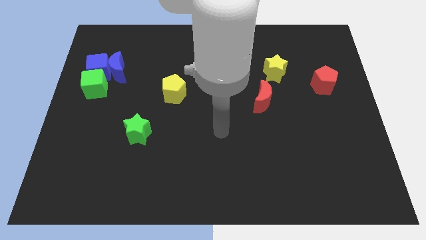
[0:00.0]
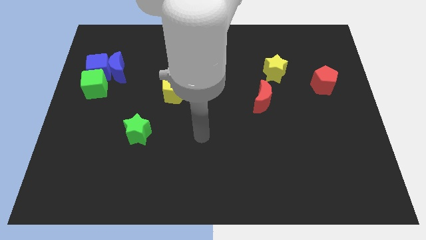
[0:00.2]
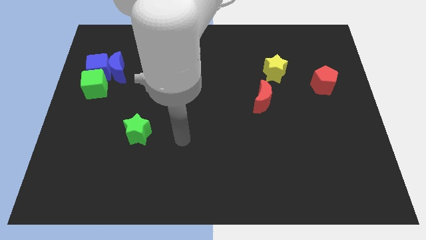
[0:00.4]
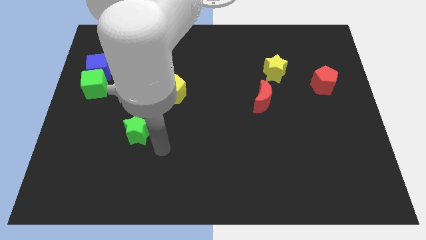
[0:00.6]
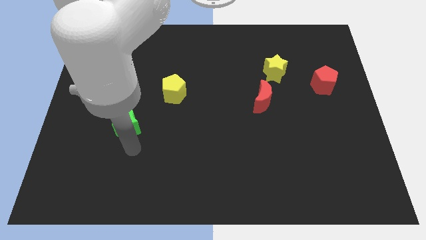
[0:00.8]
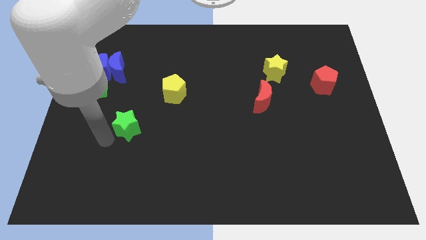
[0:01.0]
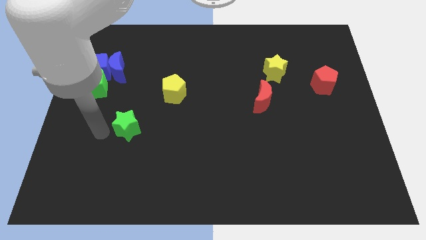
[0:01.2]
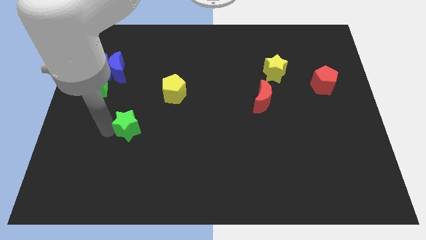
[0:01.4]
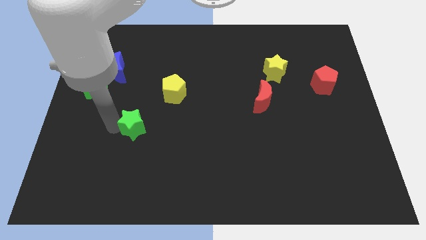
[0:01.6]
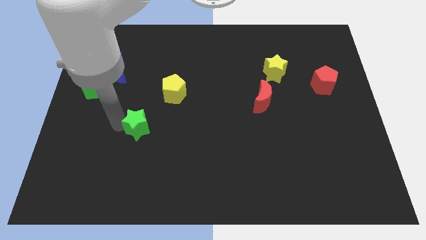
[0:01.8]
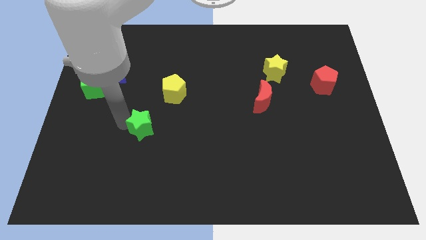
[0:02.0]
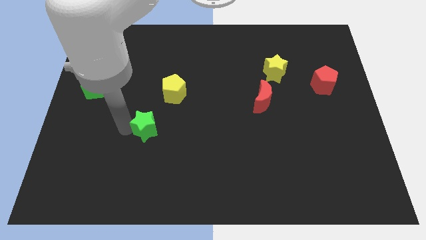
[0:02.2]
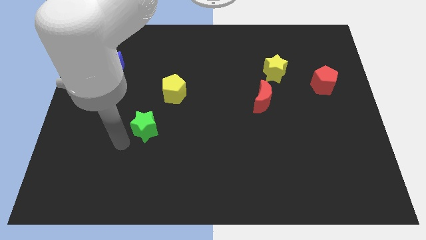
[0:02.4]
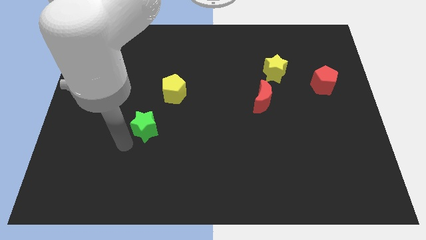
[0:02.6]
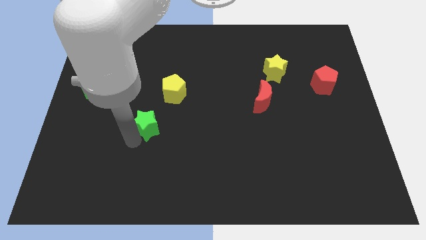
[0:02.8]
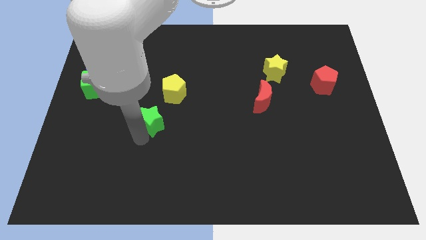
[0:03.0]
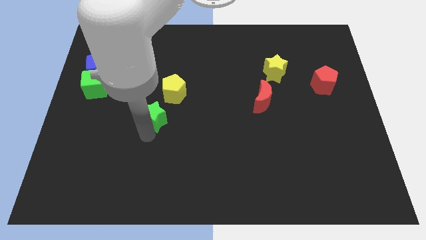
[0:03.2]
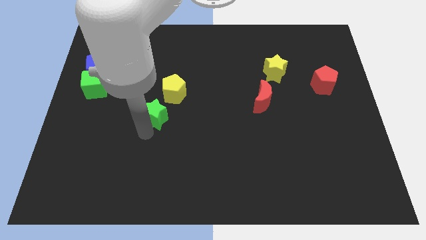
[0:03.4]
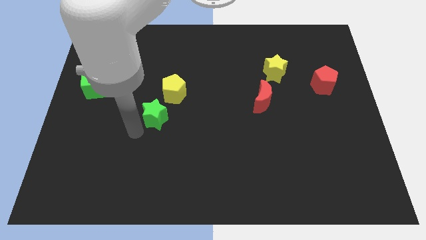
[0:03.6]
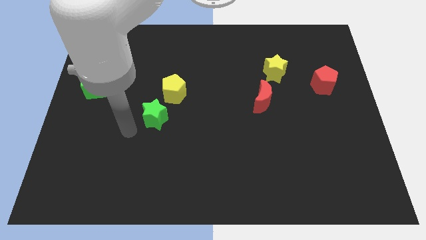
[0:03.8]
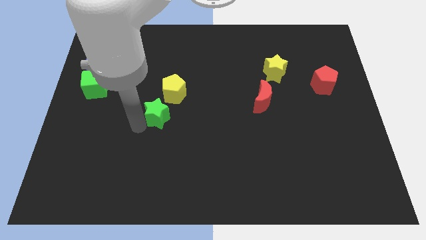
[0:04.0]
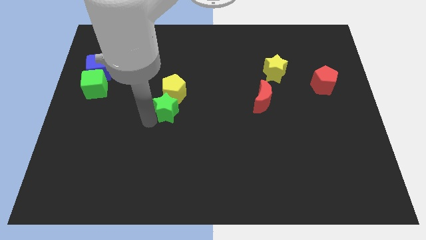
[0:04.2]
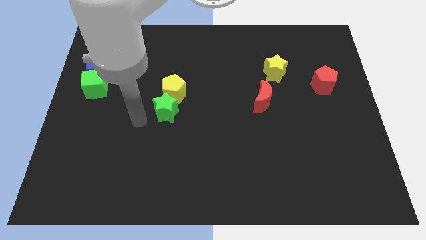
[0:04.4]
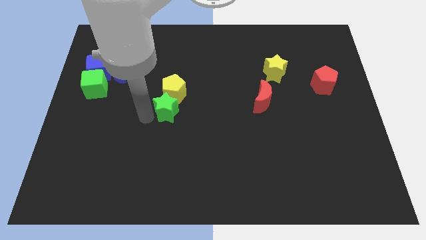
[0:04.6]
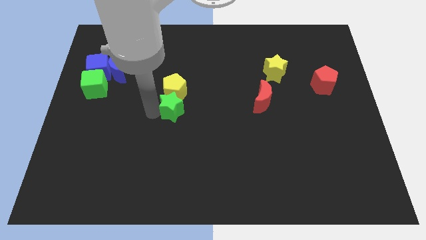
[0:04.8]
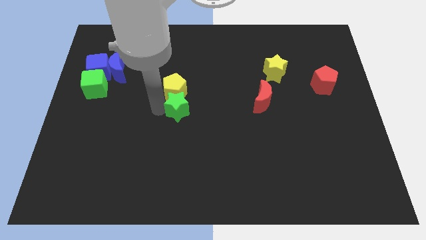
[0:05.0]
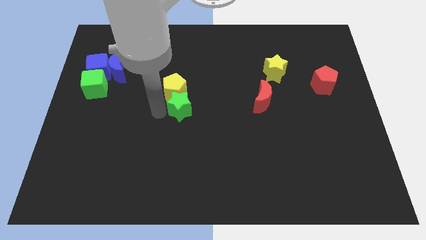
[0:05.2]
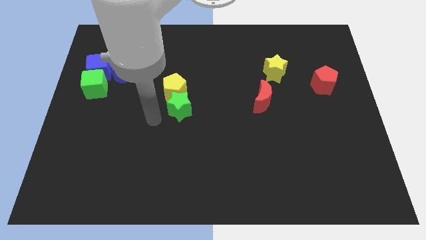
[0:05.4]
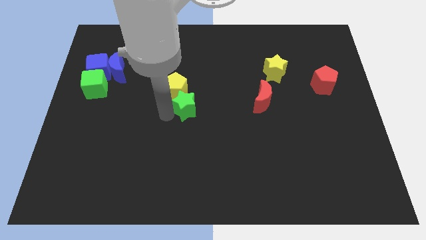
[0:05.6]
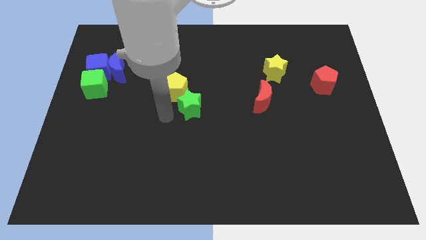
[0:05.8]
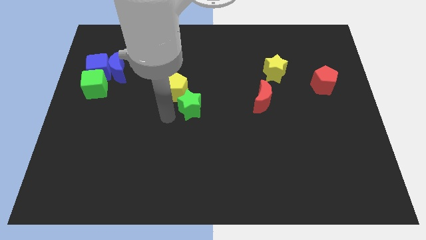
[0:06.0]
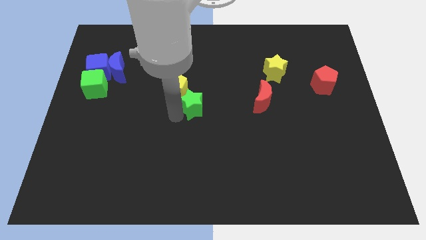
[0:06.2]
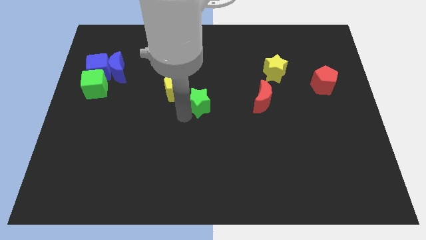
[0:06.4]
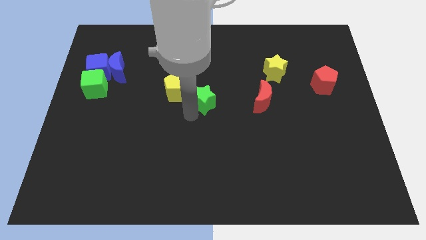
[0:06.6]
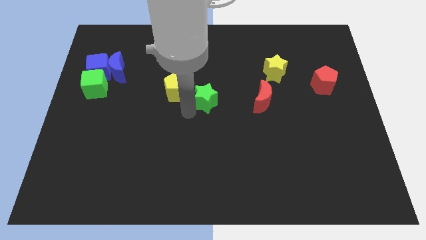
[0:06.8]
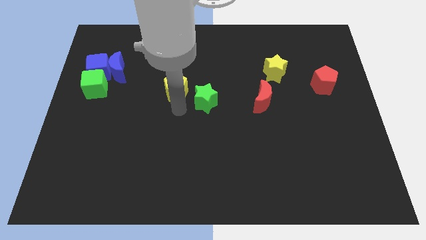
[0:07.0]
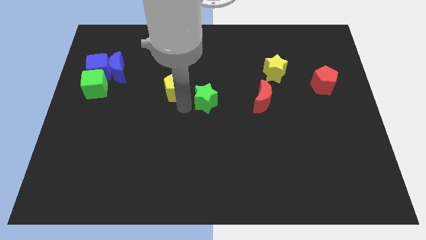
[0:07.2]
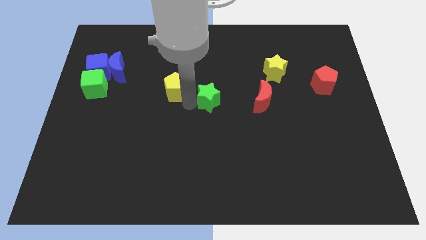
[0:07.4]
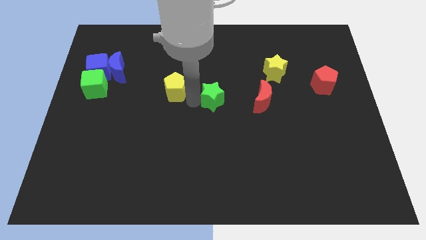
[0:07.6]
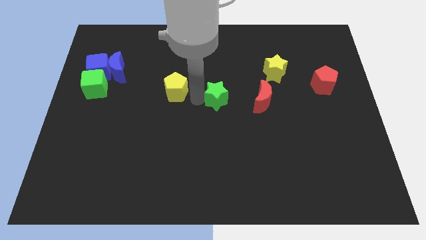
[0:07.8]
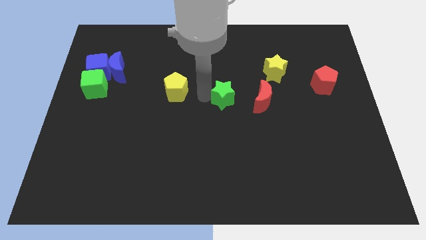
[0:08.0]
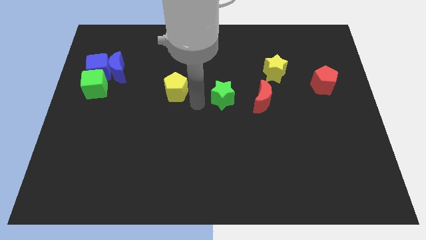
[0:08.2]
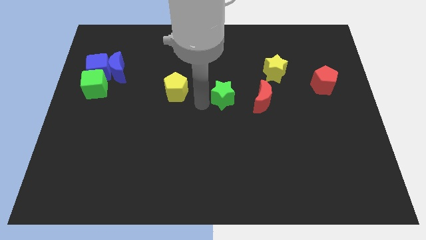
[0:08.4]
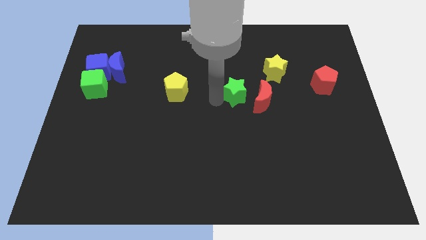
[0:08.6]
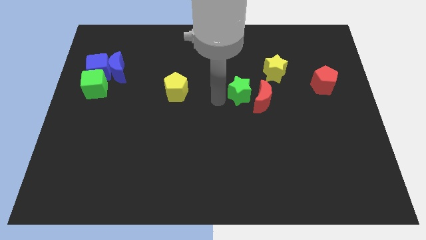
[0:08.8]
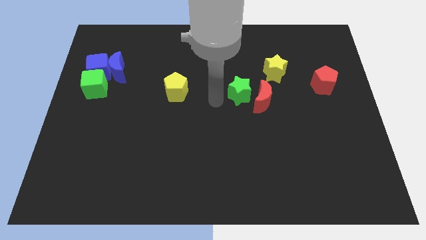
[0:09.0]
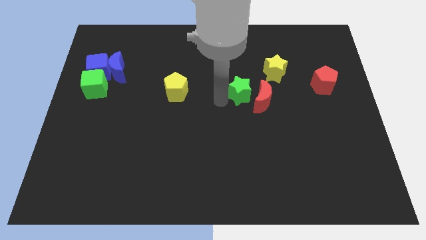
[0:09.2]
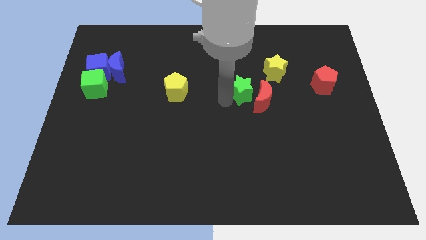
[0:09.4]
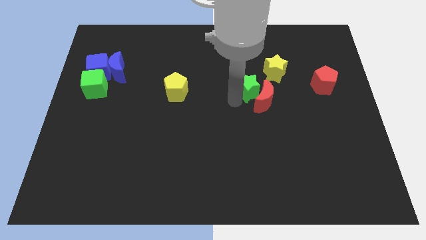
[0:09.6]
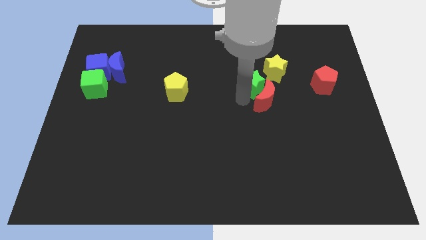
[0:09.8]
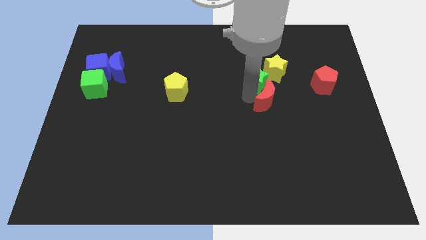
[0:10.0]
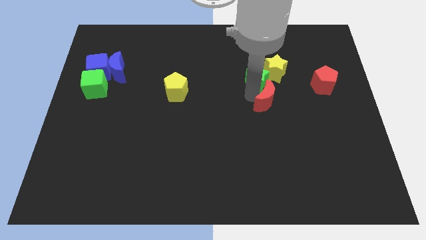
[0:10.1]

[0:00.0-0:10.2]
push the green star close to the yellow star

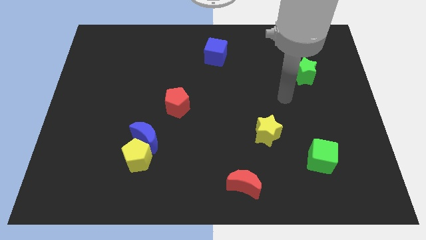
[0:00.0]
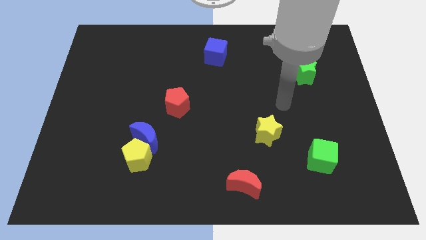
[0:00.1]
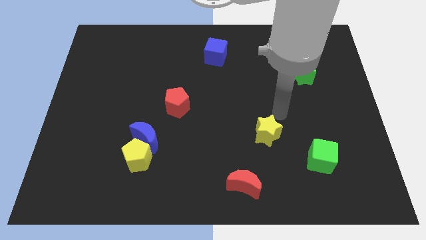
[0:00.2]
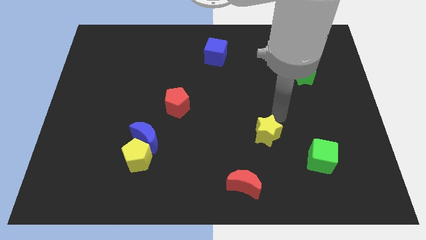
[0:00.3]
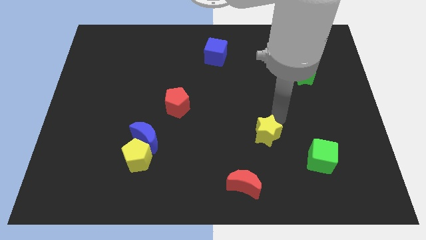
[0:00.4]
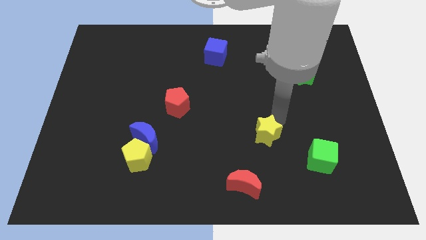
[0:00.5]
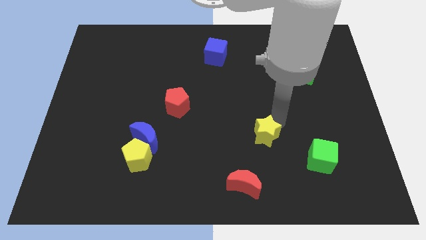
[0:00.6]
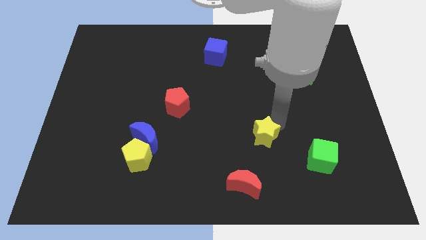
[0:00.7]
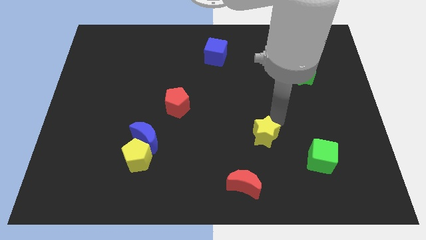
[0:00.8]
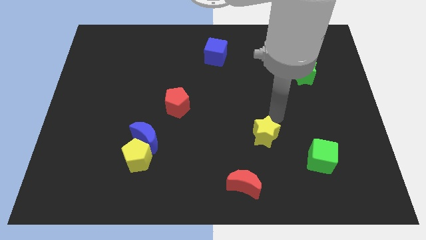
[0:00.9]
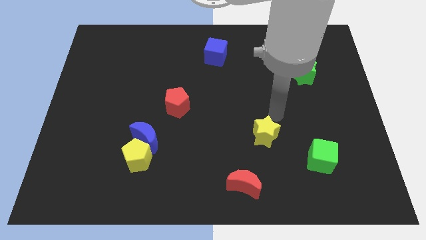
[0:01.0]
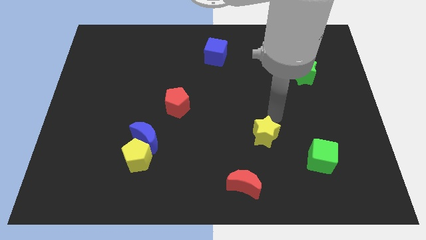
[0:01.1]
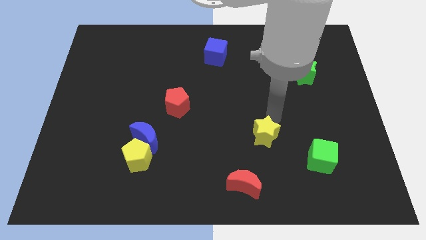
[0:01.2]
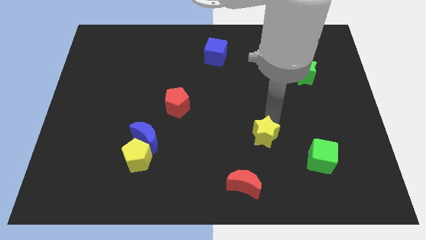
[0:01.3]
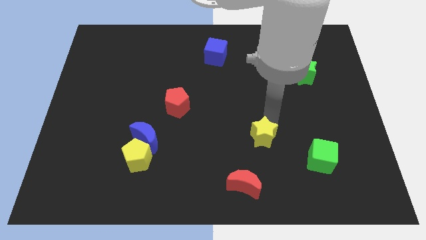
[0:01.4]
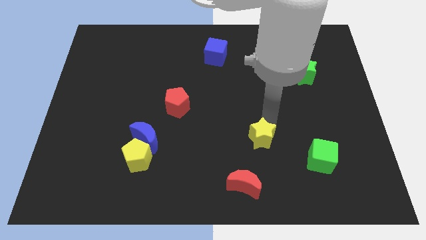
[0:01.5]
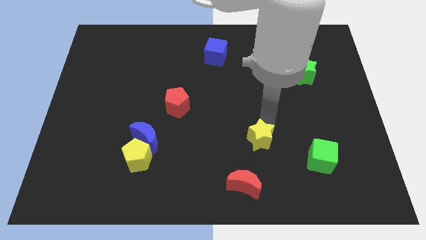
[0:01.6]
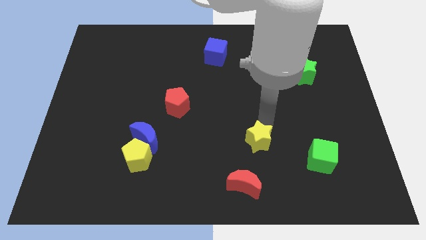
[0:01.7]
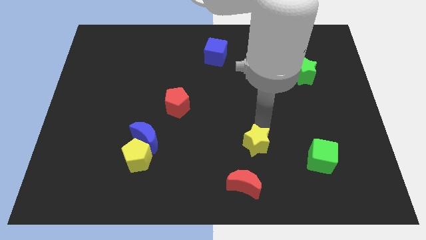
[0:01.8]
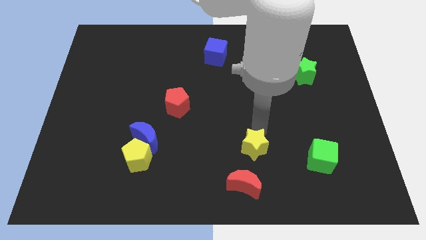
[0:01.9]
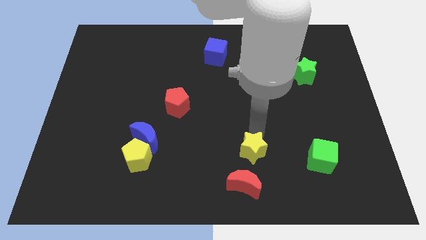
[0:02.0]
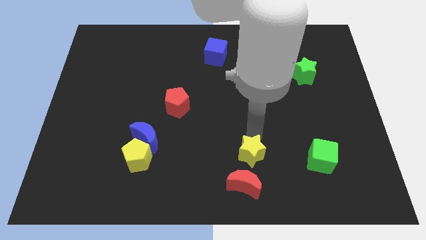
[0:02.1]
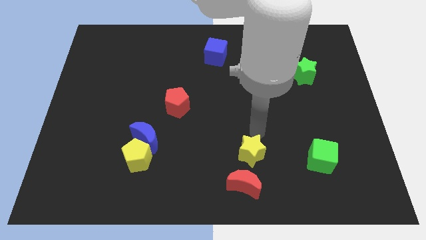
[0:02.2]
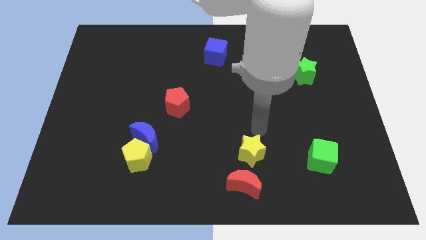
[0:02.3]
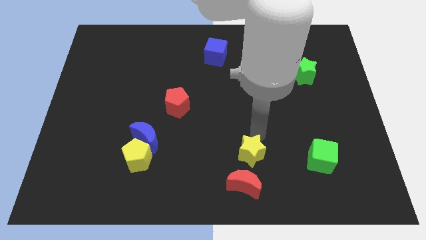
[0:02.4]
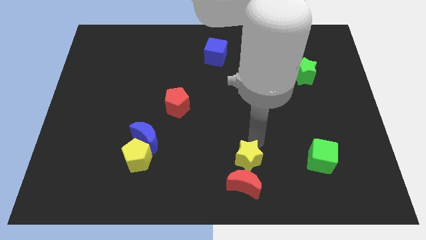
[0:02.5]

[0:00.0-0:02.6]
slide the yellow star next to the red moon
